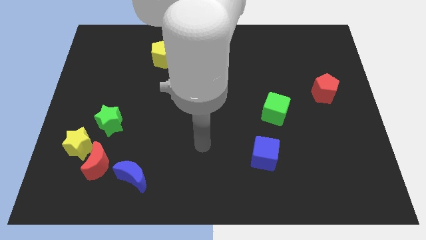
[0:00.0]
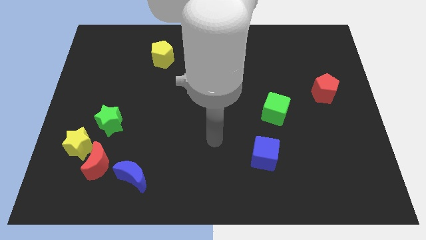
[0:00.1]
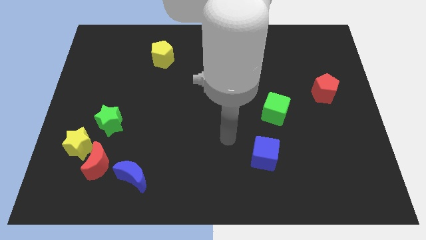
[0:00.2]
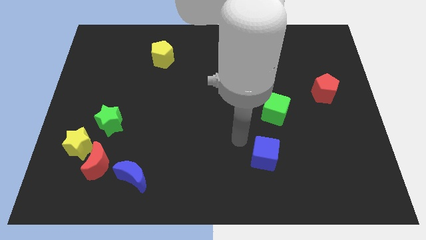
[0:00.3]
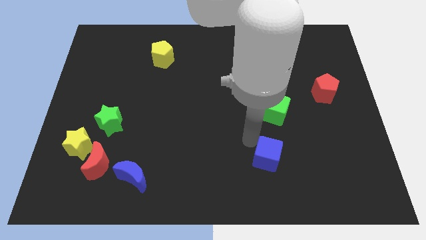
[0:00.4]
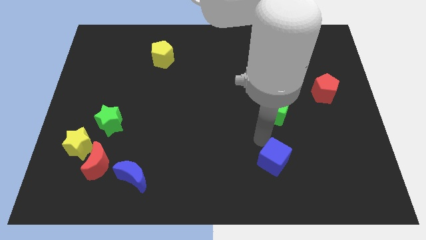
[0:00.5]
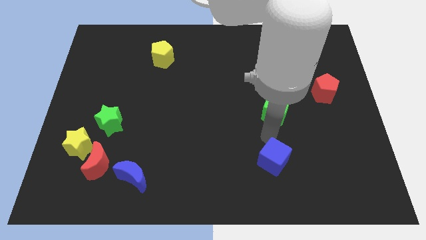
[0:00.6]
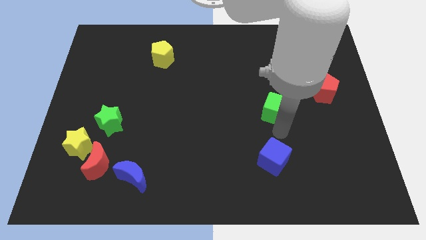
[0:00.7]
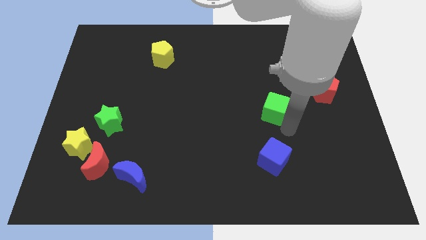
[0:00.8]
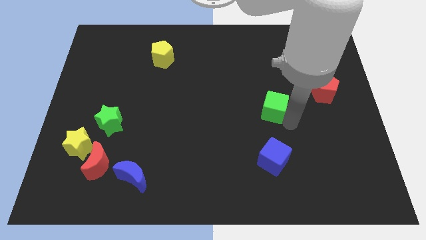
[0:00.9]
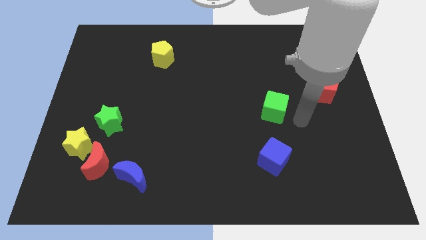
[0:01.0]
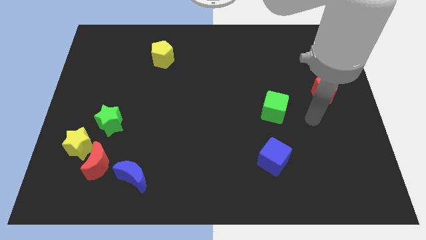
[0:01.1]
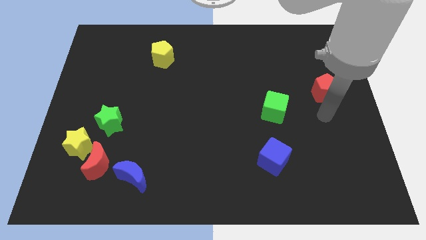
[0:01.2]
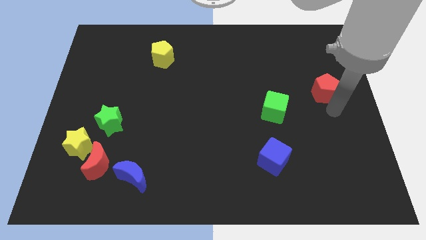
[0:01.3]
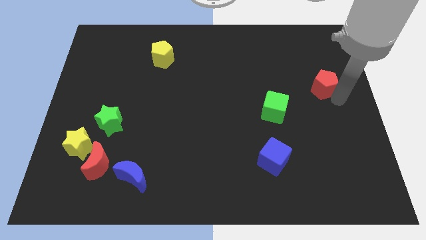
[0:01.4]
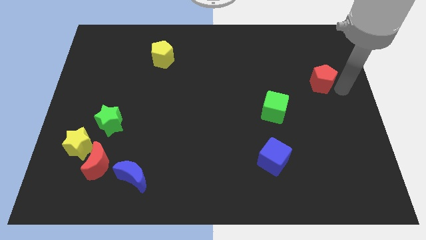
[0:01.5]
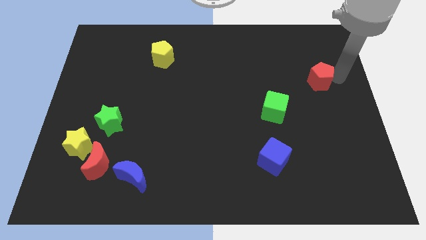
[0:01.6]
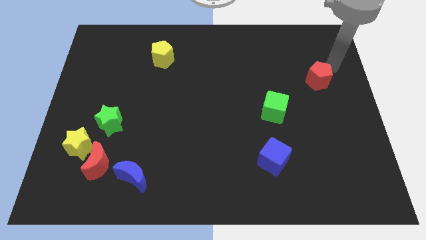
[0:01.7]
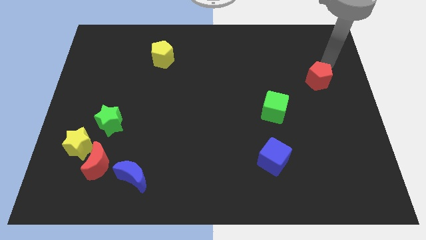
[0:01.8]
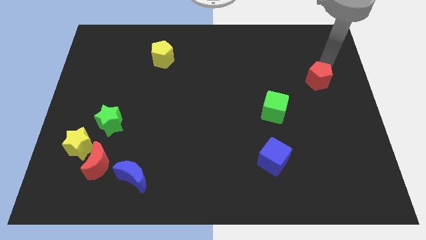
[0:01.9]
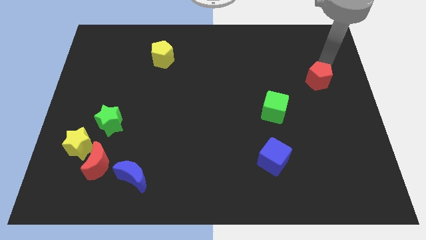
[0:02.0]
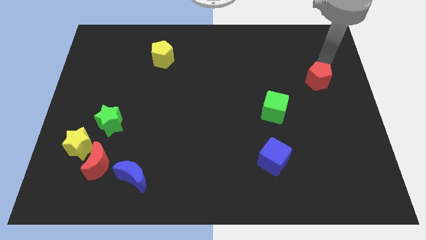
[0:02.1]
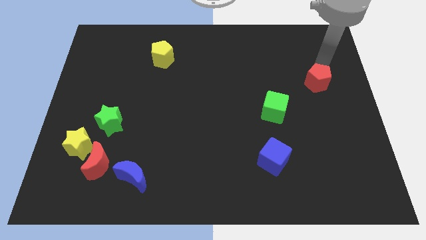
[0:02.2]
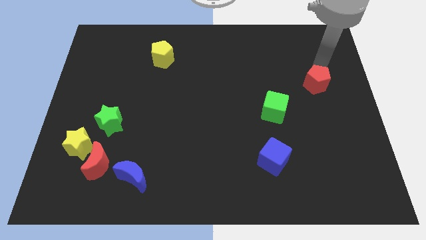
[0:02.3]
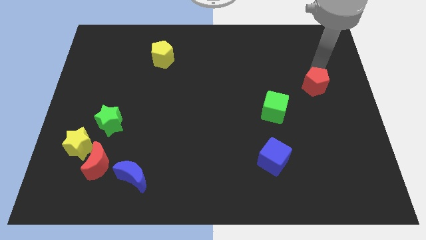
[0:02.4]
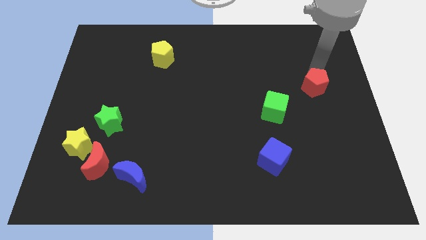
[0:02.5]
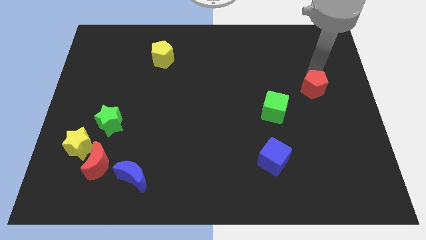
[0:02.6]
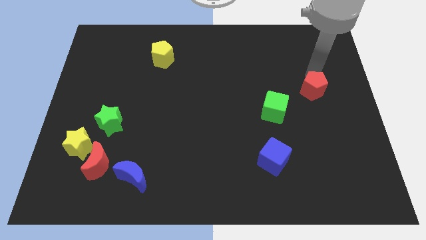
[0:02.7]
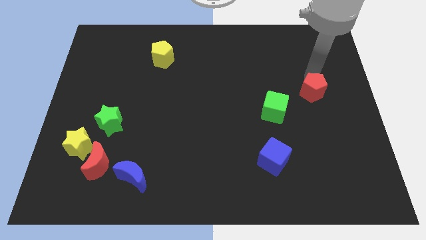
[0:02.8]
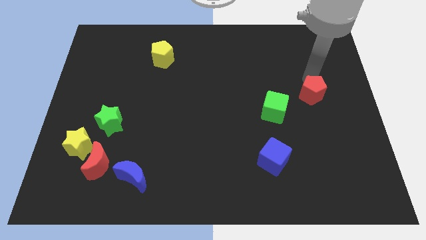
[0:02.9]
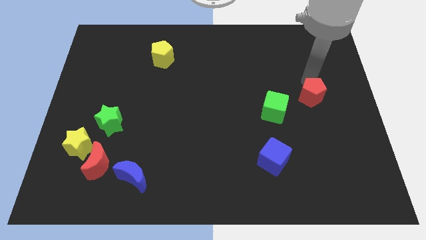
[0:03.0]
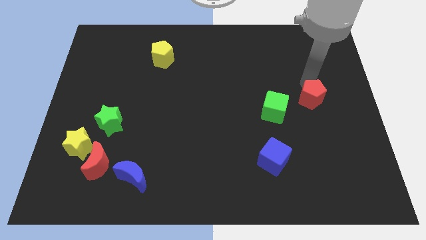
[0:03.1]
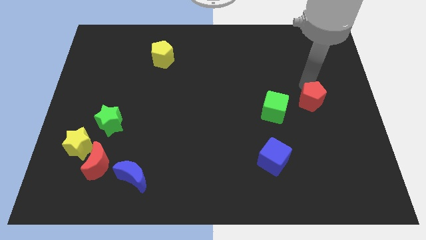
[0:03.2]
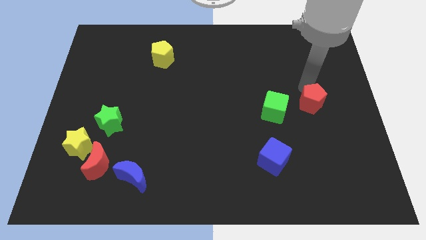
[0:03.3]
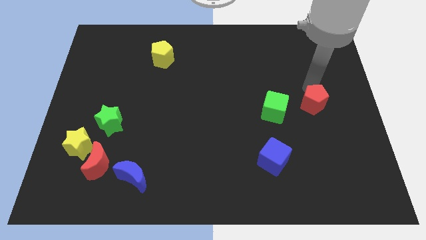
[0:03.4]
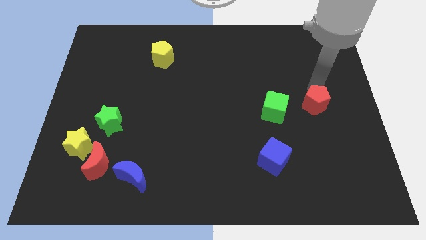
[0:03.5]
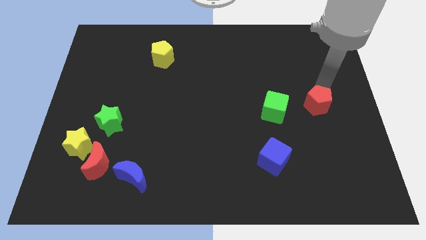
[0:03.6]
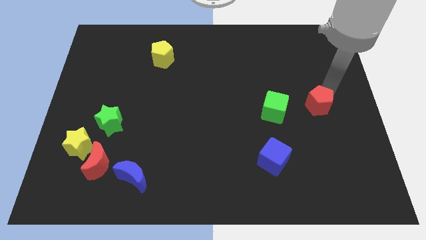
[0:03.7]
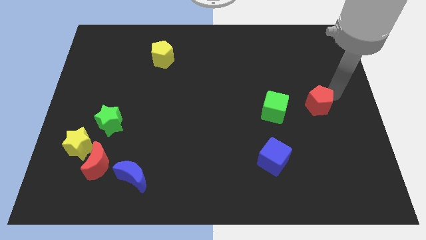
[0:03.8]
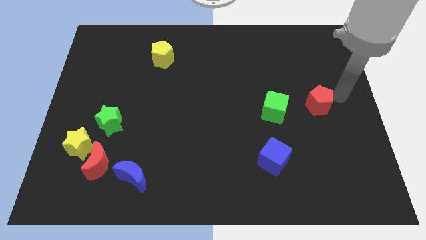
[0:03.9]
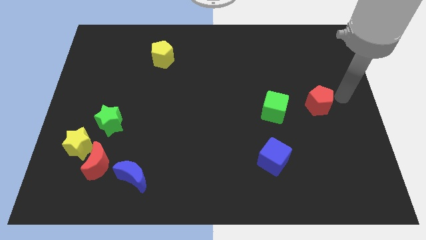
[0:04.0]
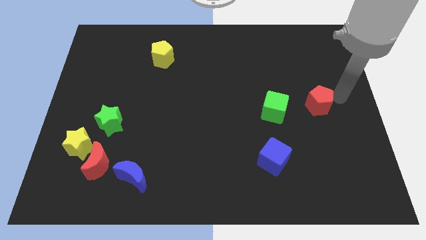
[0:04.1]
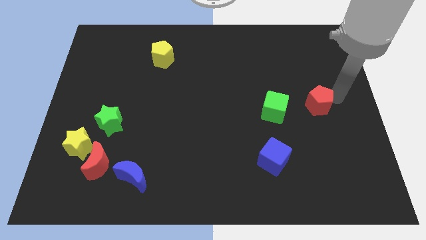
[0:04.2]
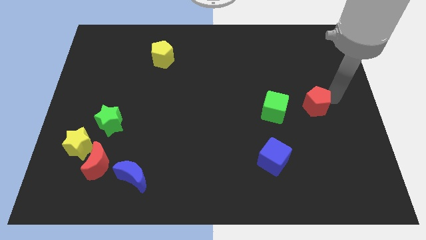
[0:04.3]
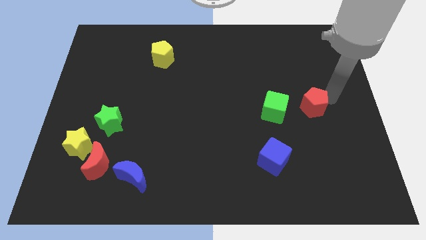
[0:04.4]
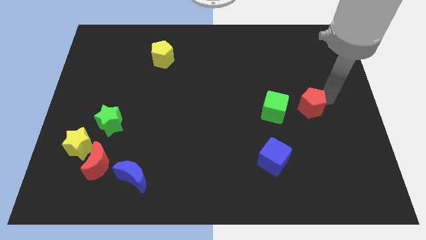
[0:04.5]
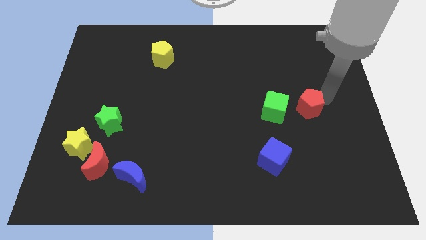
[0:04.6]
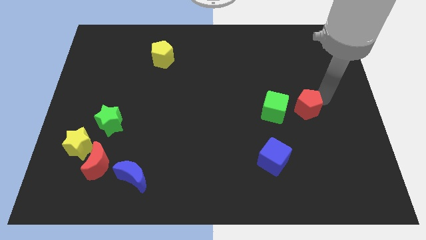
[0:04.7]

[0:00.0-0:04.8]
slide the red pentagon down and then to the left a little bit

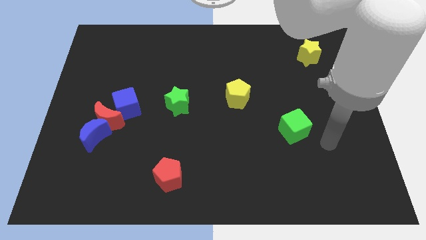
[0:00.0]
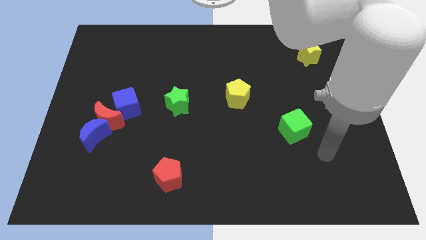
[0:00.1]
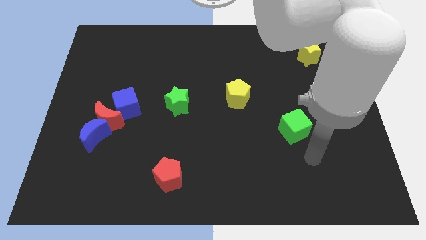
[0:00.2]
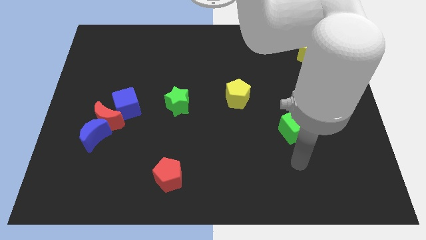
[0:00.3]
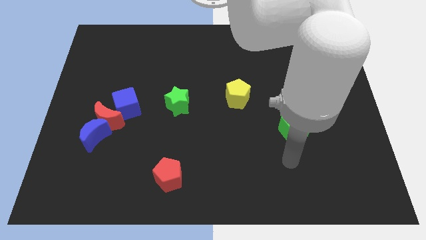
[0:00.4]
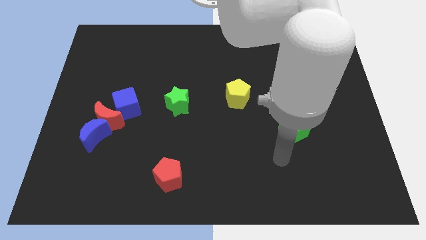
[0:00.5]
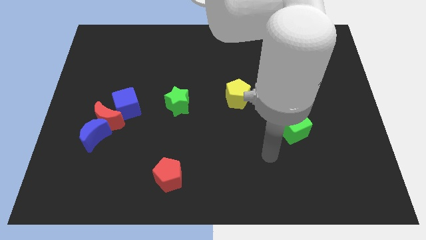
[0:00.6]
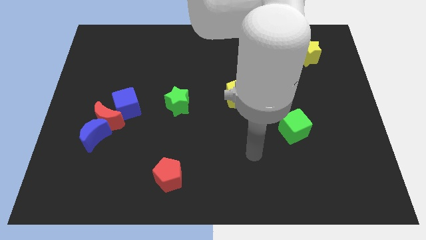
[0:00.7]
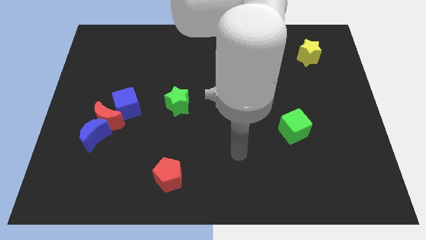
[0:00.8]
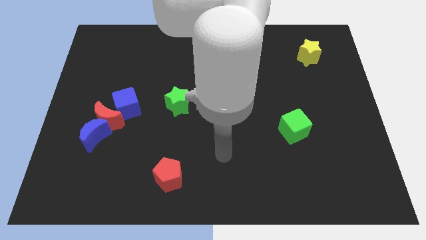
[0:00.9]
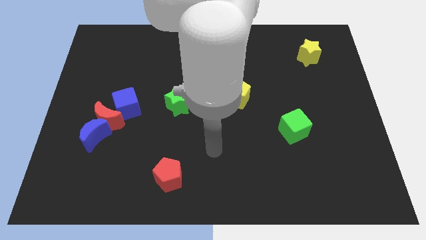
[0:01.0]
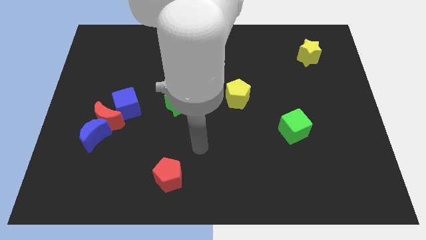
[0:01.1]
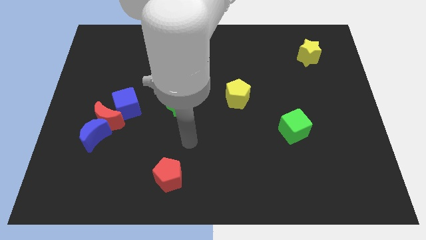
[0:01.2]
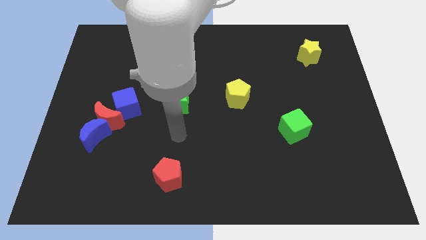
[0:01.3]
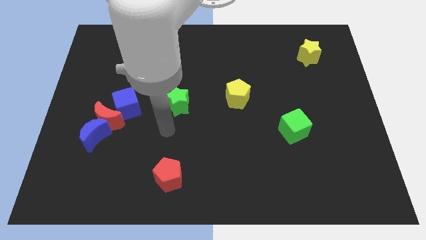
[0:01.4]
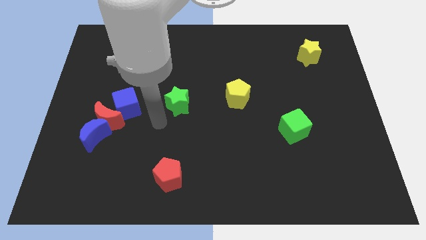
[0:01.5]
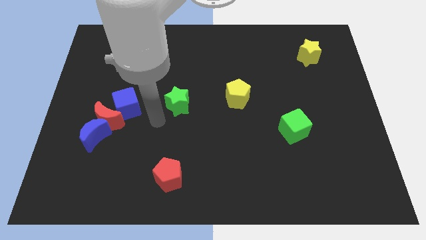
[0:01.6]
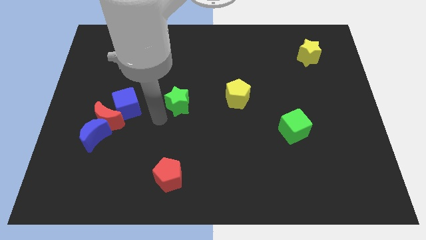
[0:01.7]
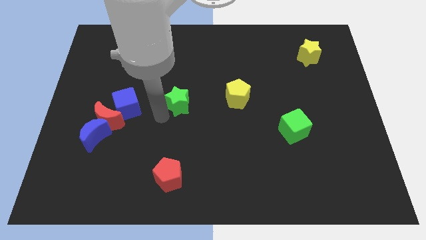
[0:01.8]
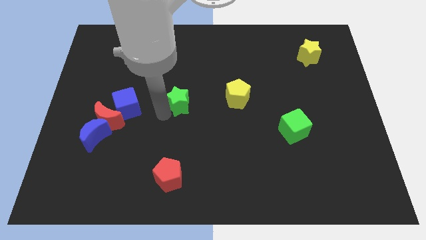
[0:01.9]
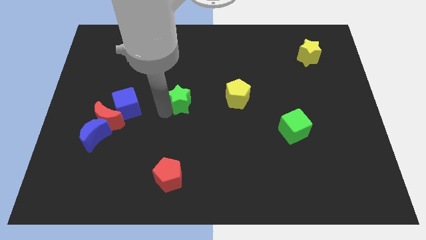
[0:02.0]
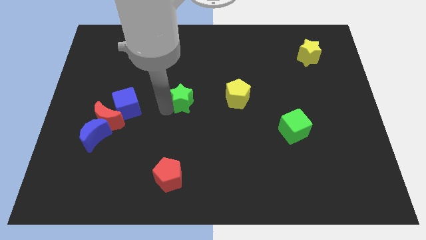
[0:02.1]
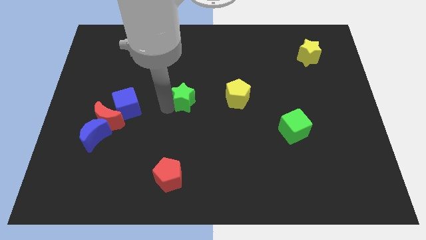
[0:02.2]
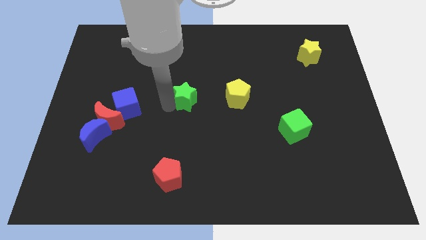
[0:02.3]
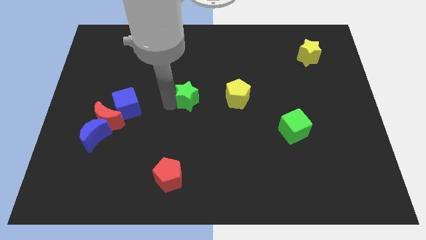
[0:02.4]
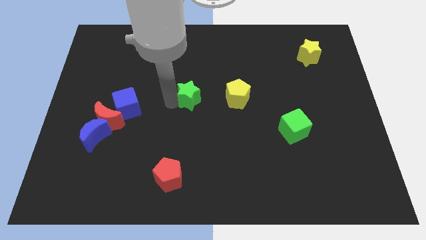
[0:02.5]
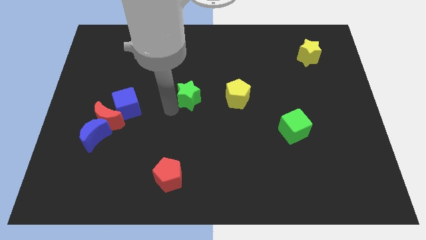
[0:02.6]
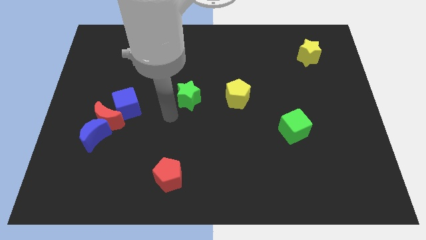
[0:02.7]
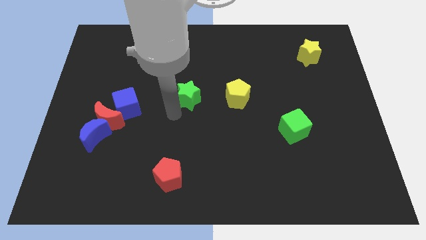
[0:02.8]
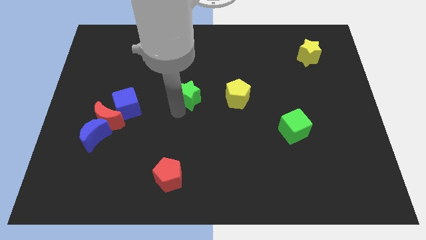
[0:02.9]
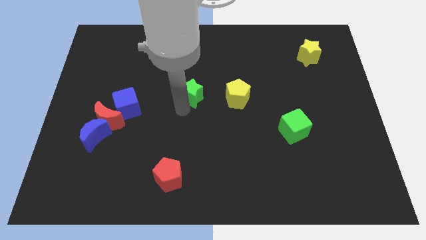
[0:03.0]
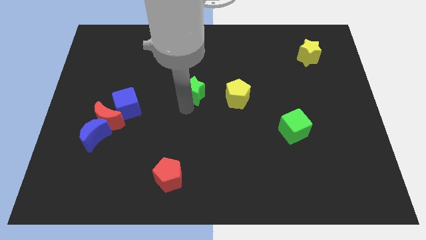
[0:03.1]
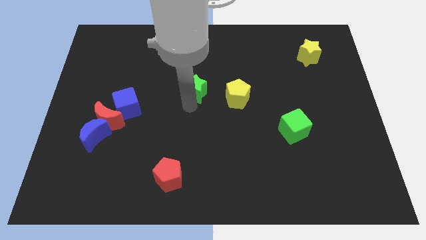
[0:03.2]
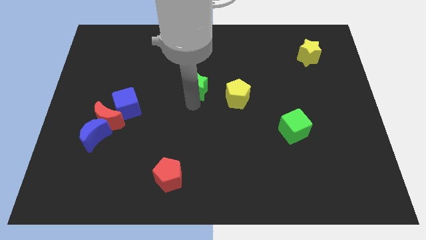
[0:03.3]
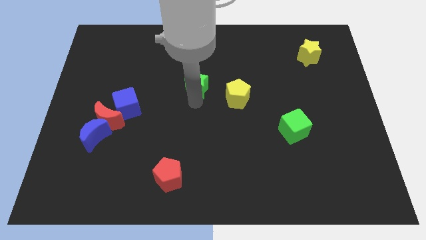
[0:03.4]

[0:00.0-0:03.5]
slightly slide the green star diagonally upwards and to the right
